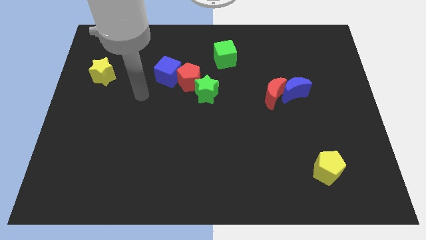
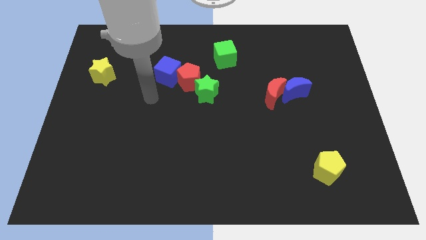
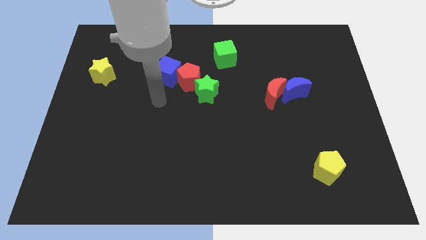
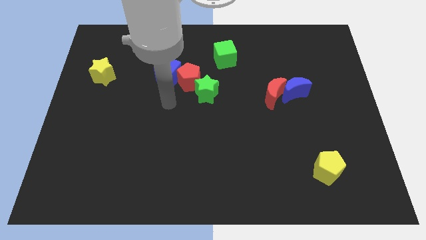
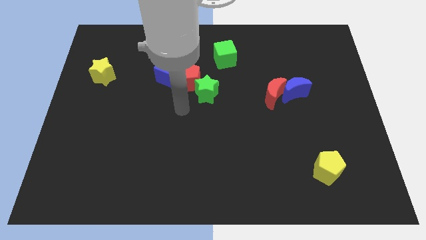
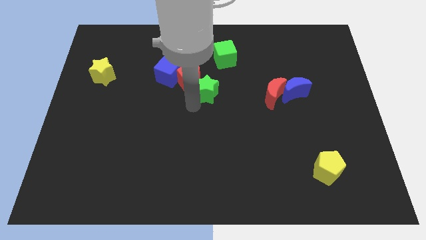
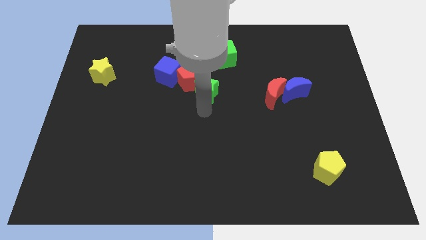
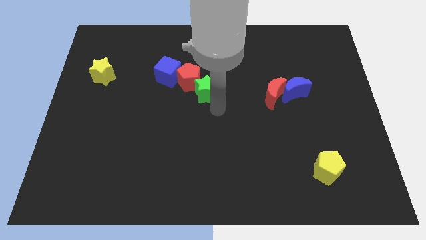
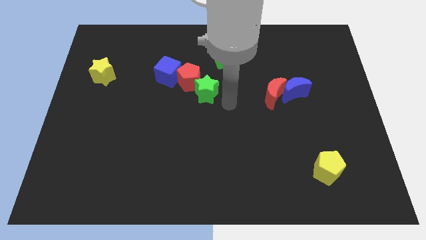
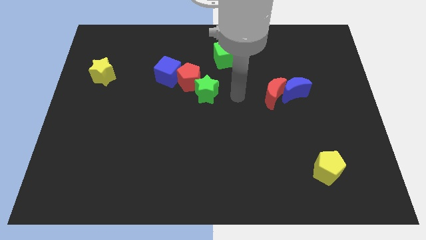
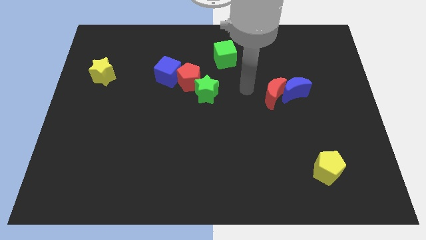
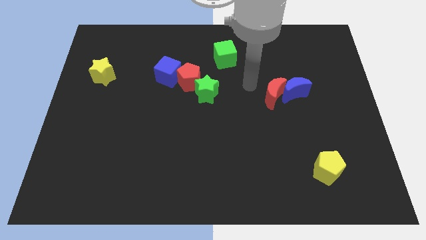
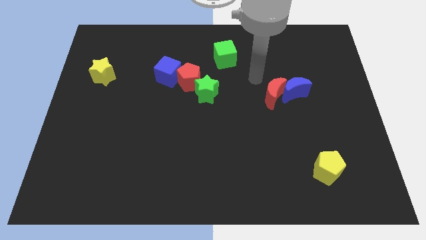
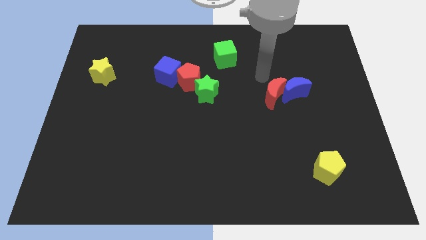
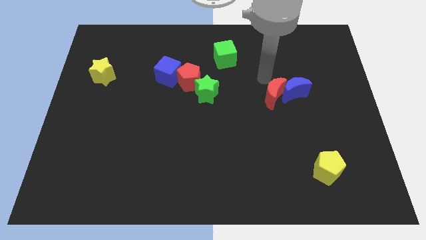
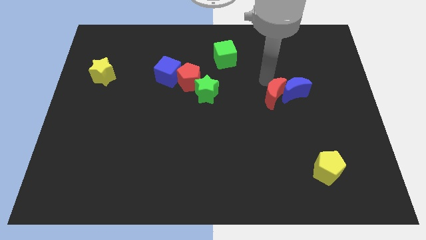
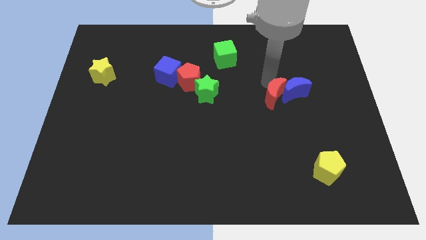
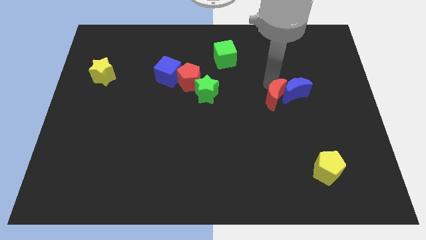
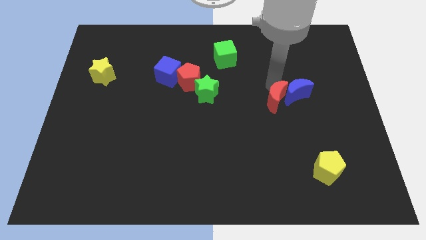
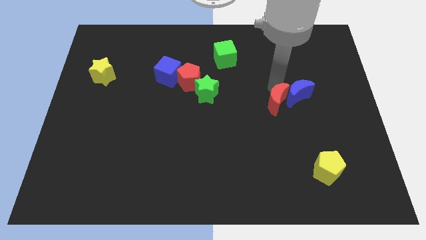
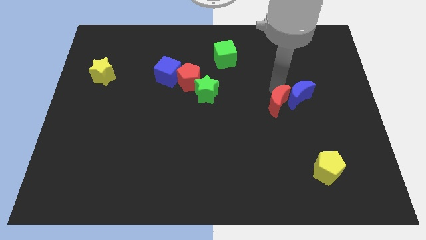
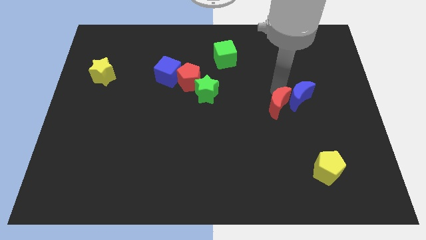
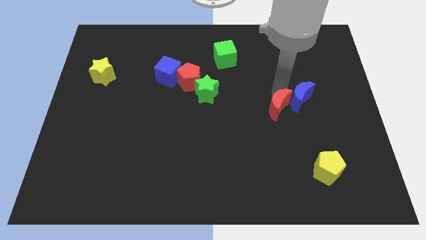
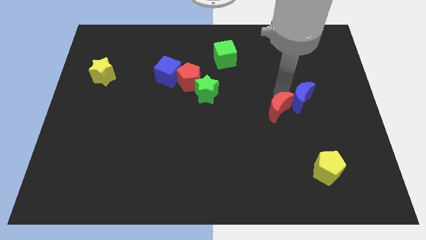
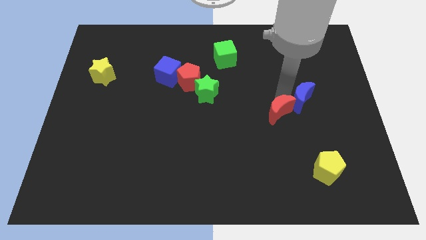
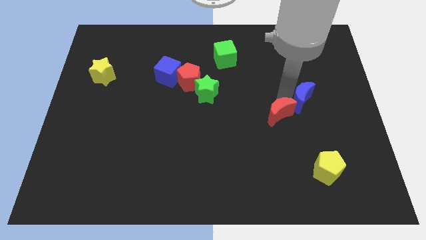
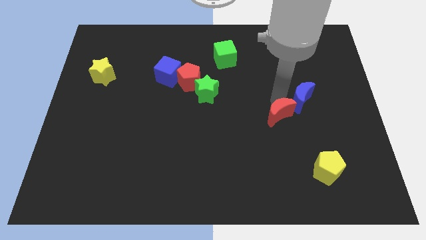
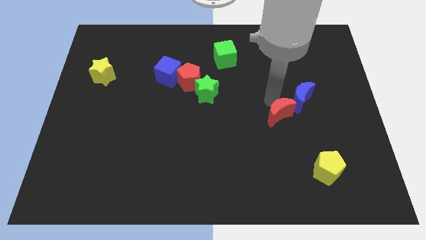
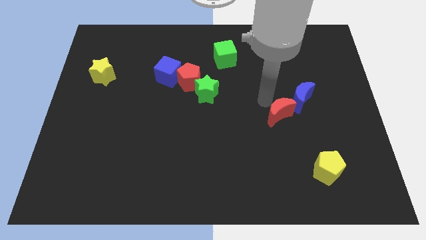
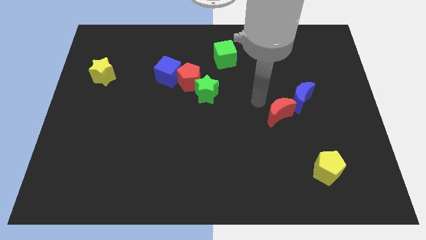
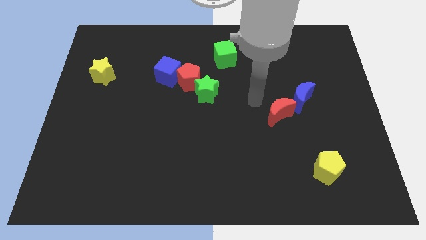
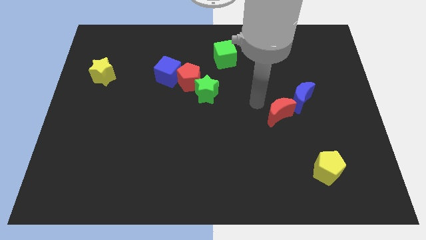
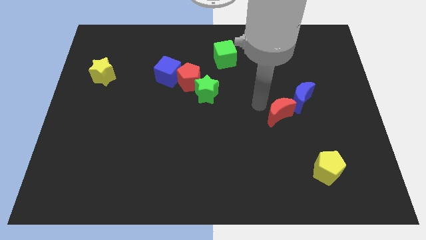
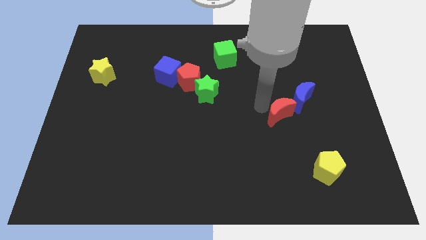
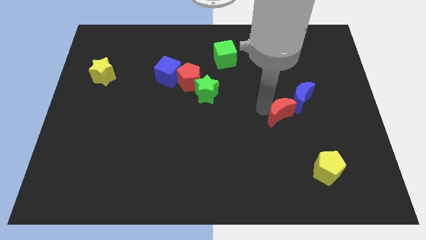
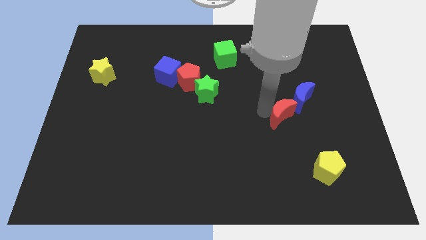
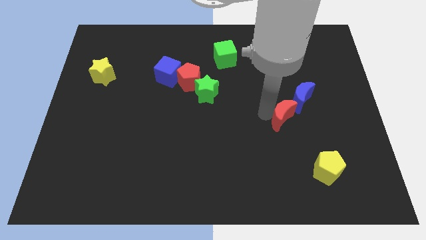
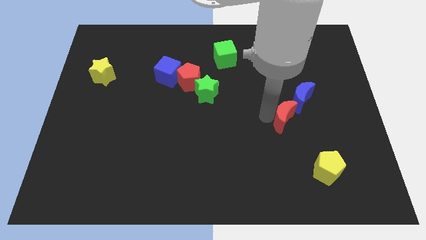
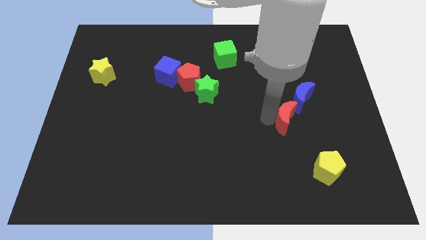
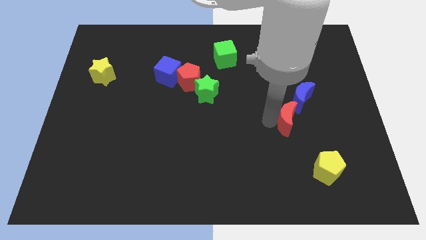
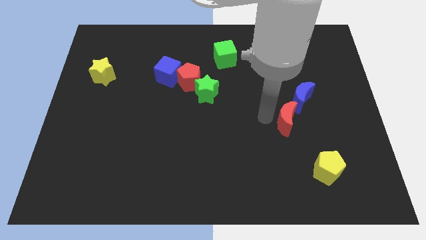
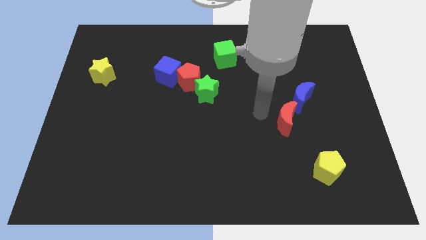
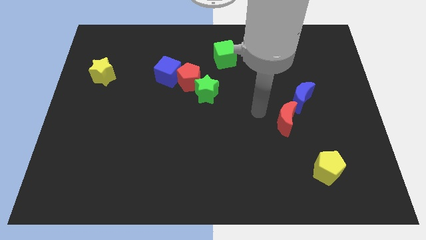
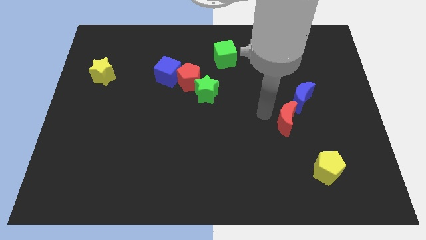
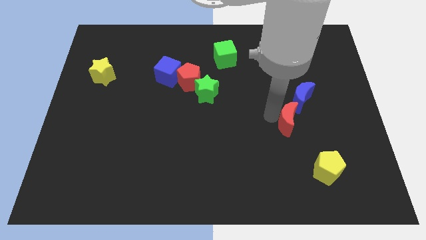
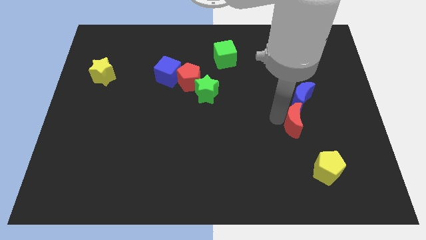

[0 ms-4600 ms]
push the red moon downwards and to the right diagonally a bit

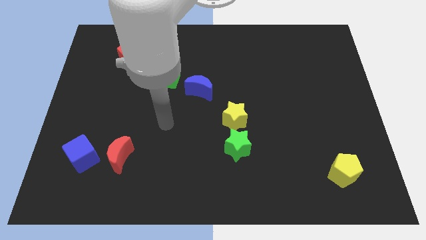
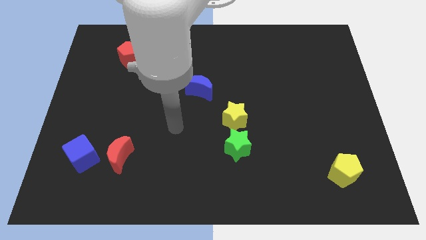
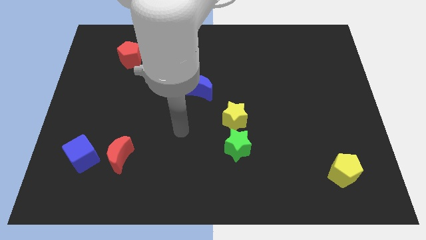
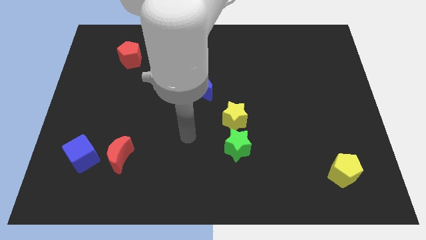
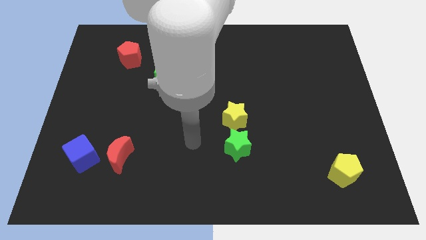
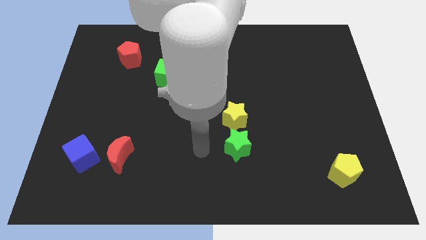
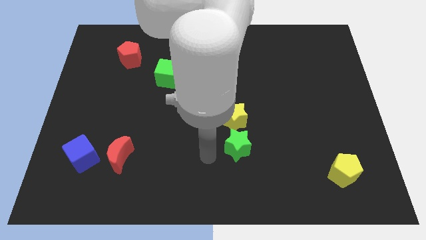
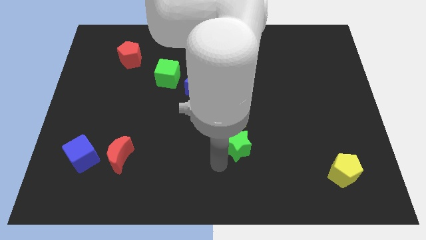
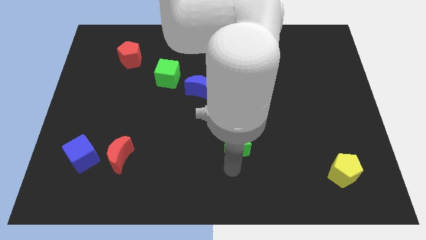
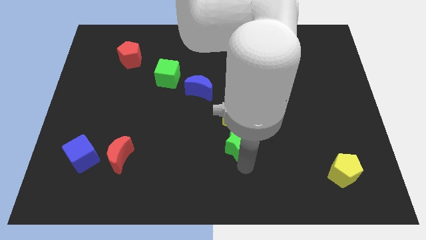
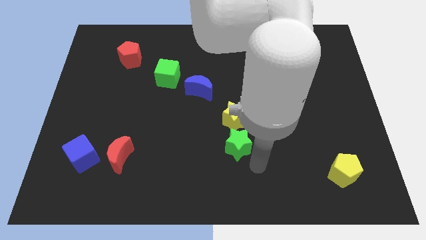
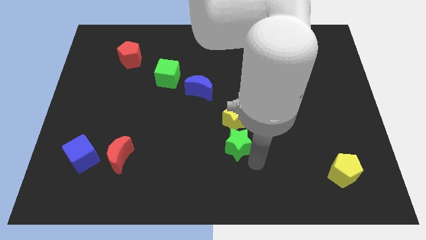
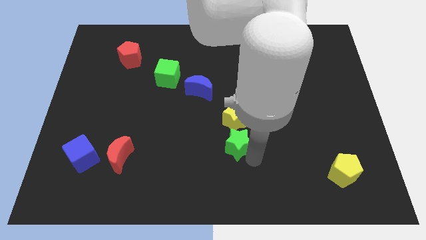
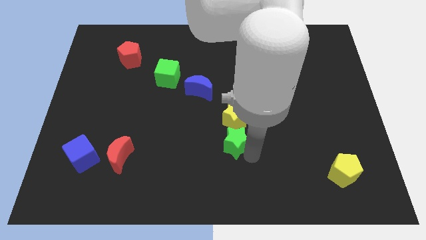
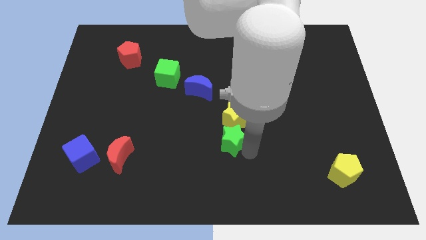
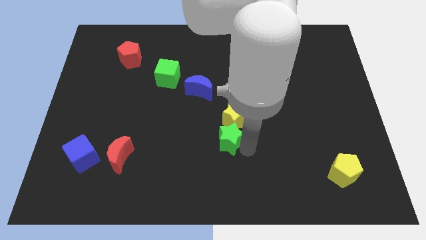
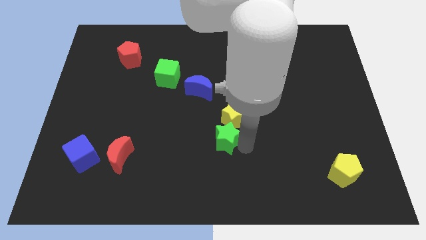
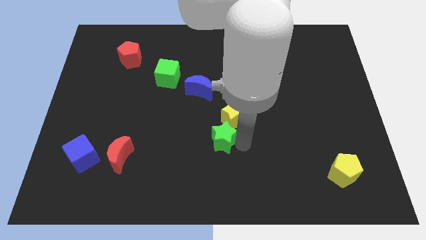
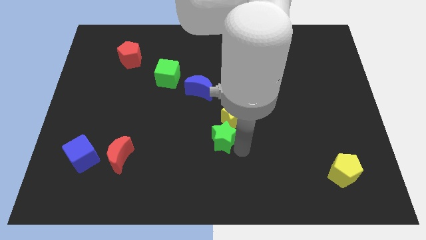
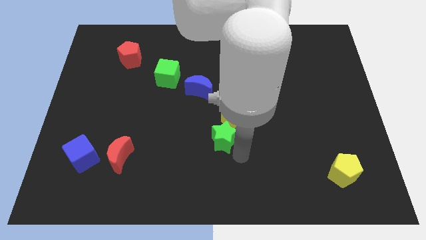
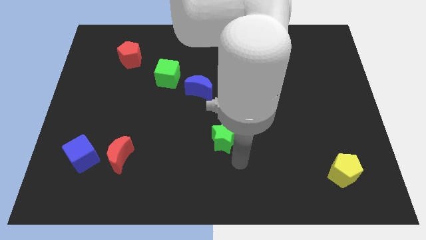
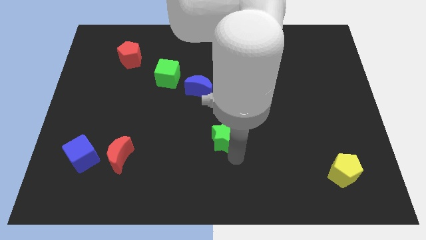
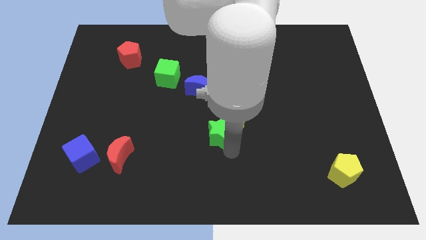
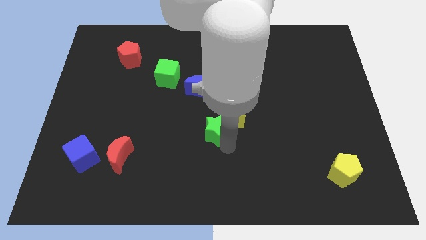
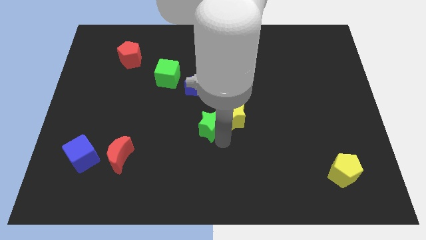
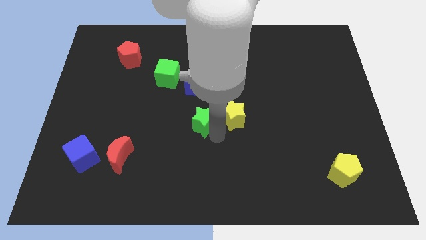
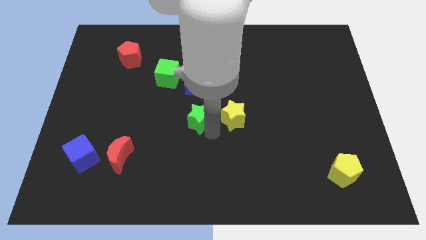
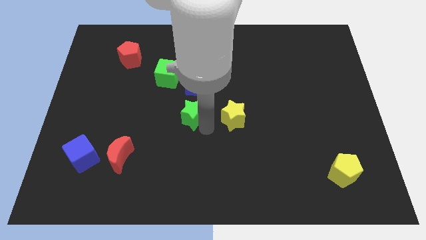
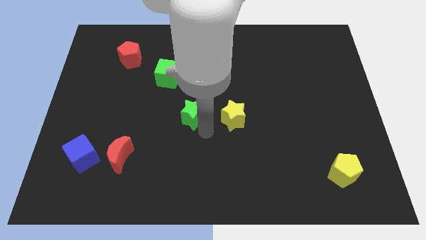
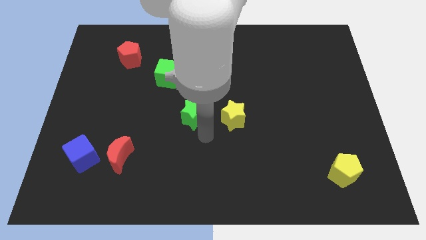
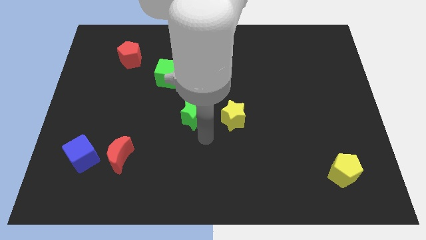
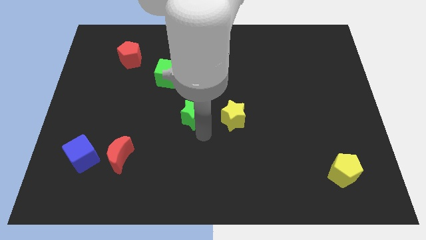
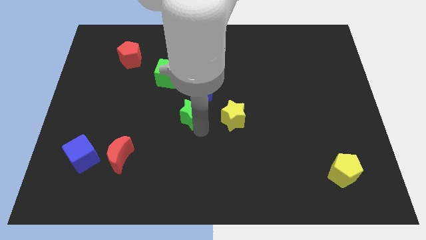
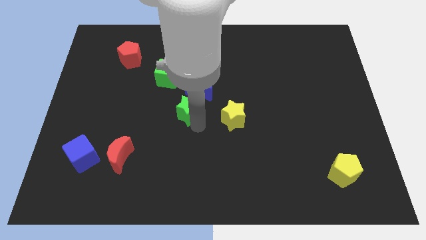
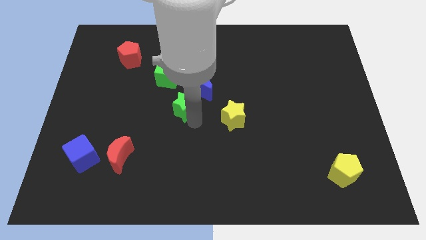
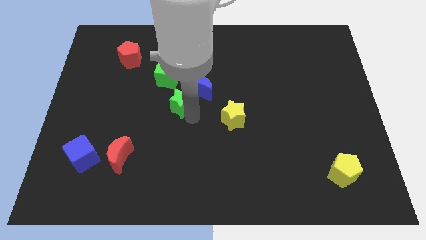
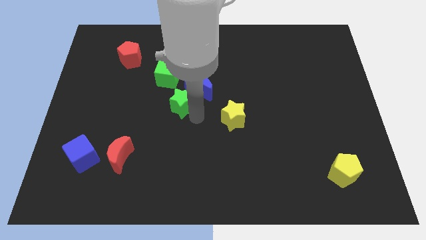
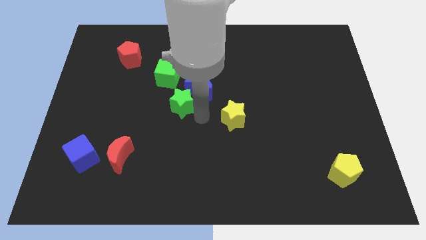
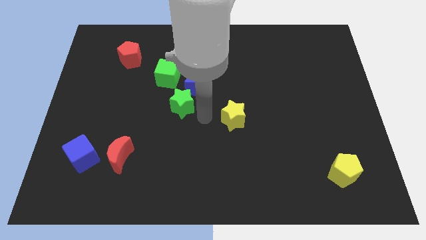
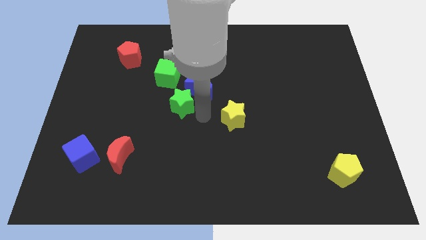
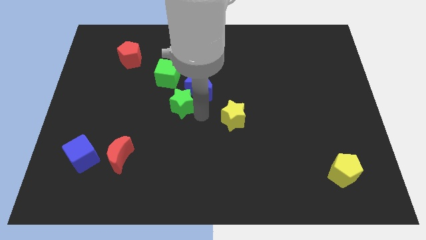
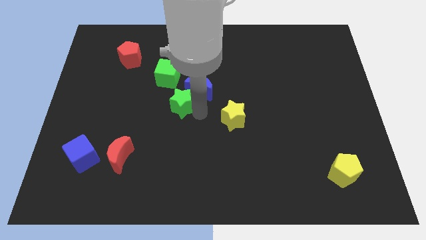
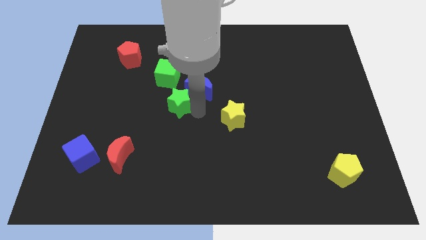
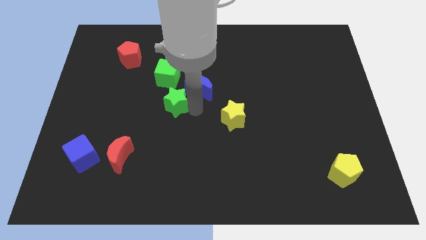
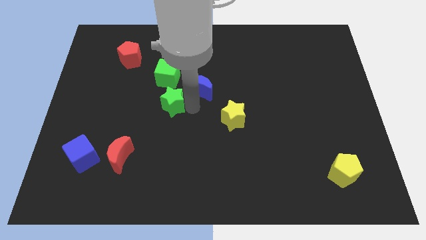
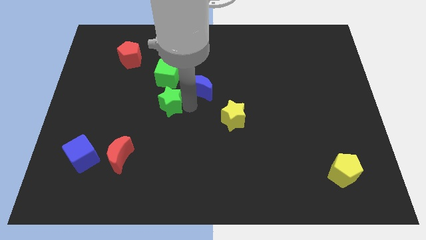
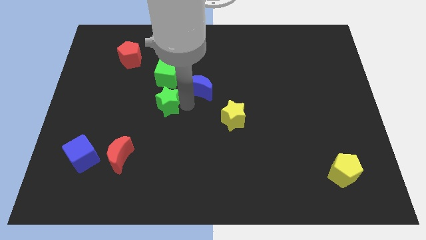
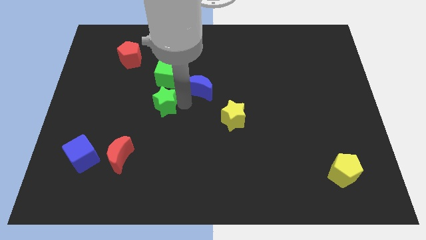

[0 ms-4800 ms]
slide the green star up and then left
